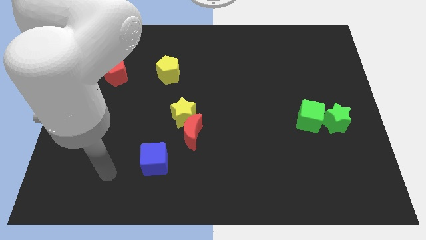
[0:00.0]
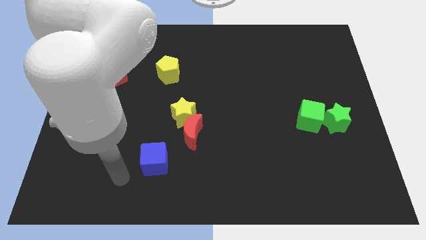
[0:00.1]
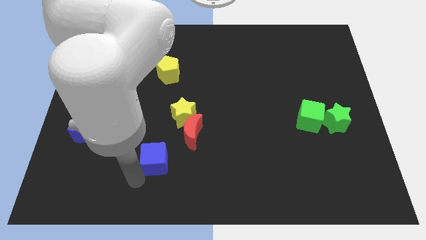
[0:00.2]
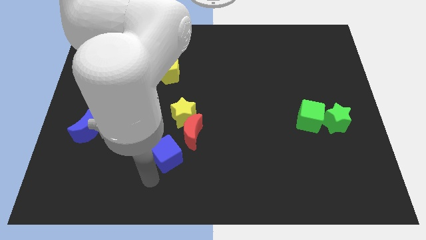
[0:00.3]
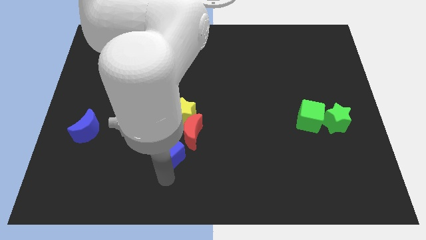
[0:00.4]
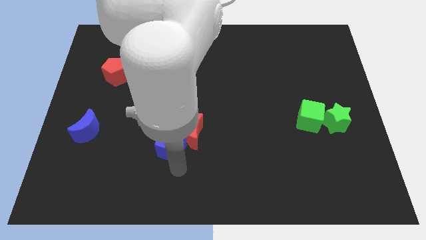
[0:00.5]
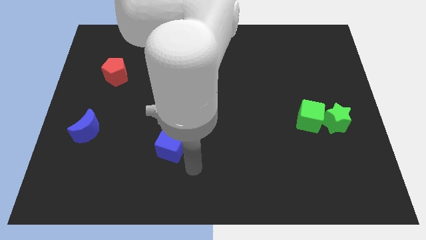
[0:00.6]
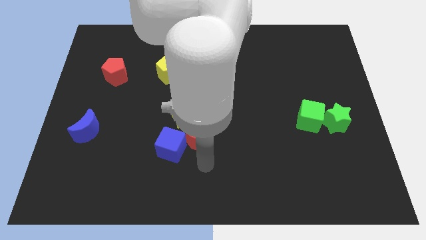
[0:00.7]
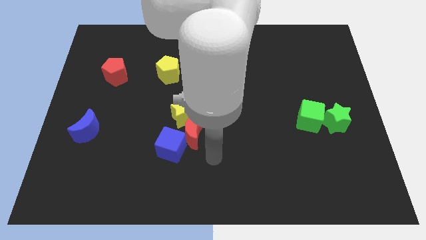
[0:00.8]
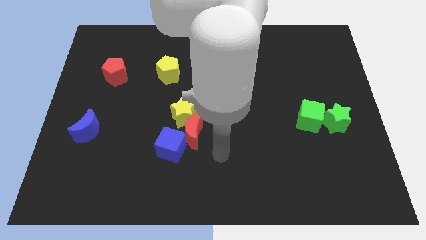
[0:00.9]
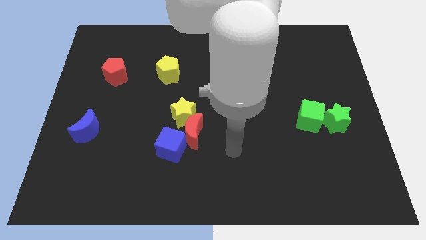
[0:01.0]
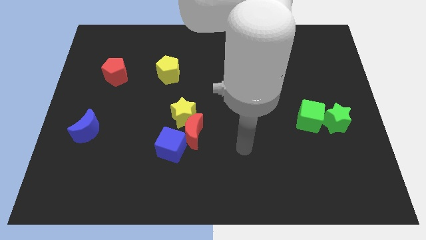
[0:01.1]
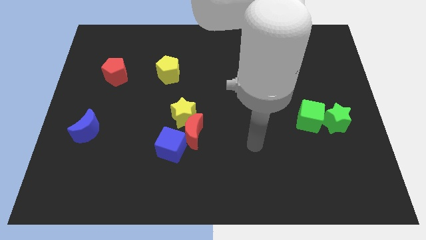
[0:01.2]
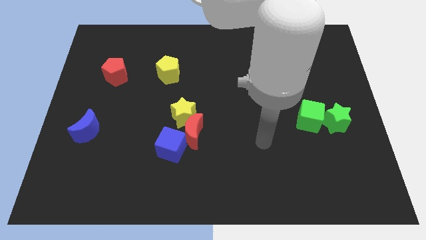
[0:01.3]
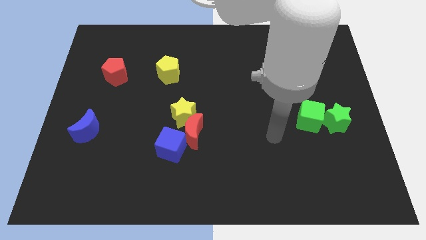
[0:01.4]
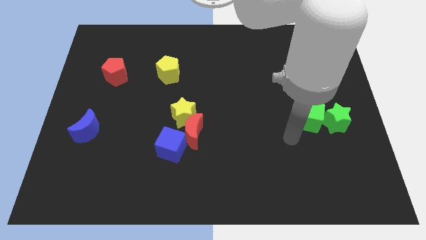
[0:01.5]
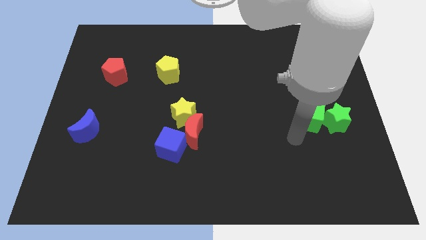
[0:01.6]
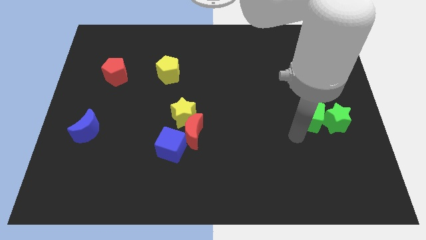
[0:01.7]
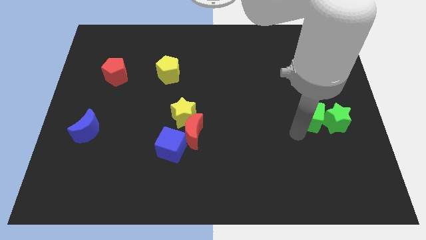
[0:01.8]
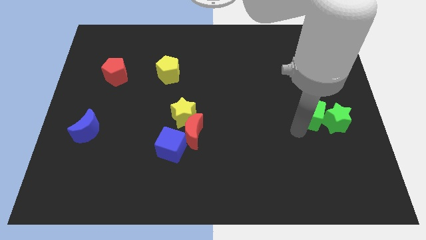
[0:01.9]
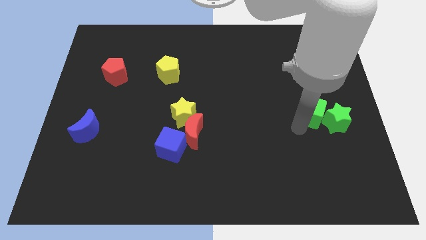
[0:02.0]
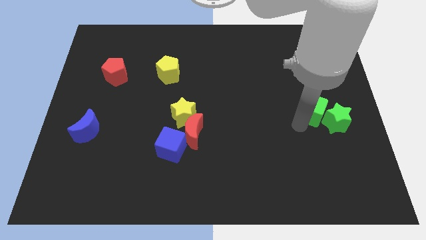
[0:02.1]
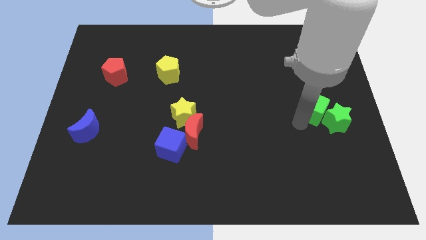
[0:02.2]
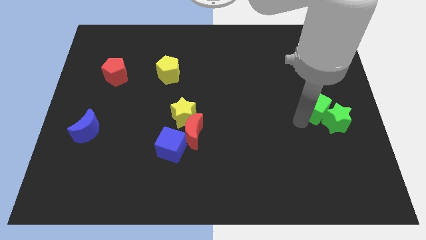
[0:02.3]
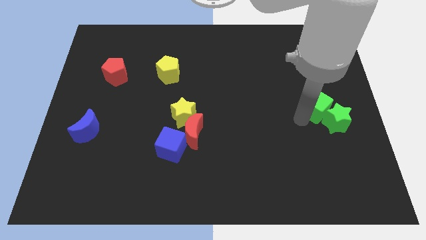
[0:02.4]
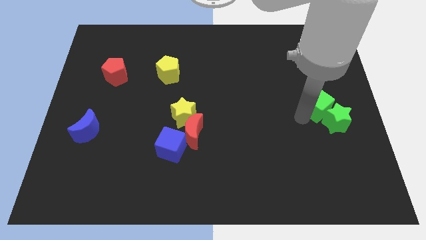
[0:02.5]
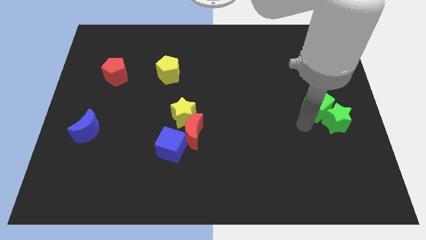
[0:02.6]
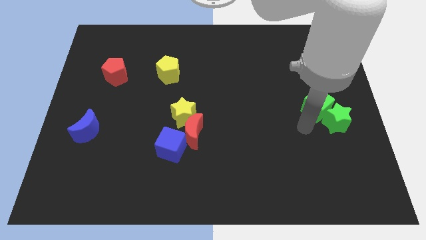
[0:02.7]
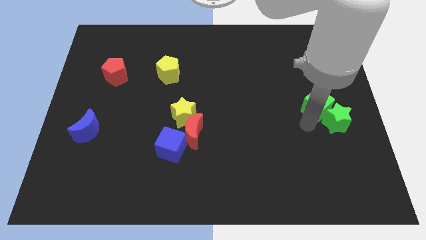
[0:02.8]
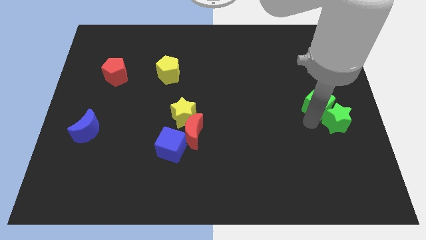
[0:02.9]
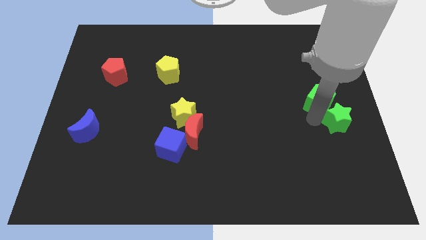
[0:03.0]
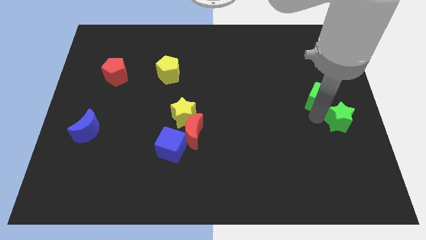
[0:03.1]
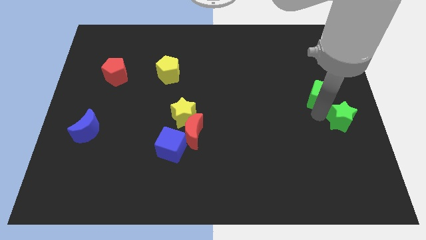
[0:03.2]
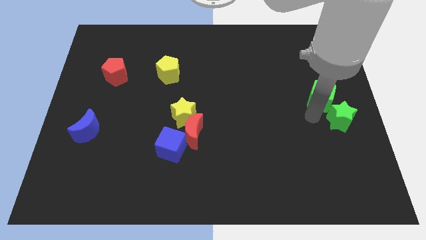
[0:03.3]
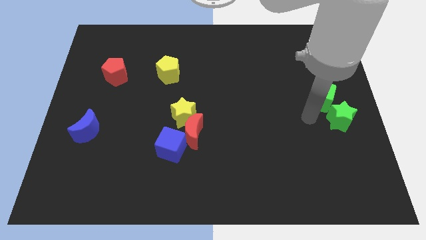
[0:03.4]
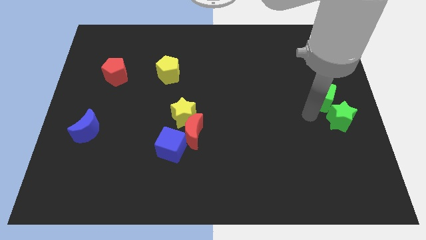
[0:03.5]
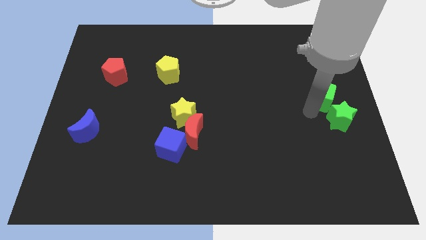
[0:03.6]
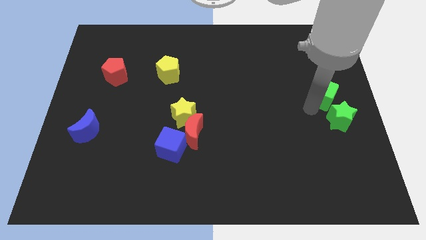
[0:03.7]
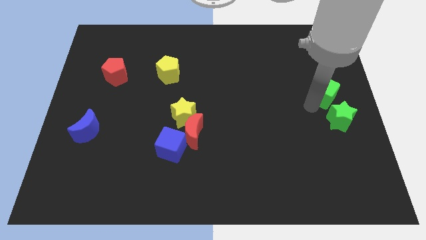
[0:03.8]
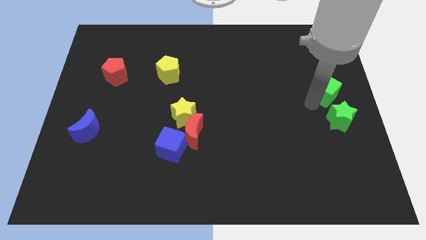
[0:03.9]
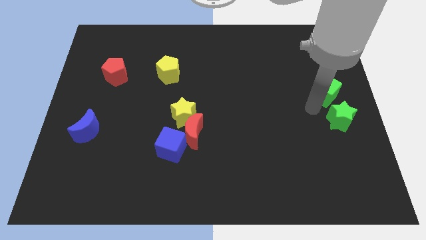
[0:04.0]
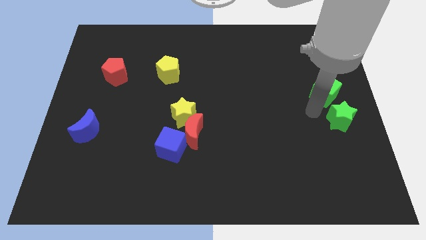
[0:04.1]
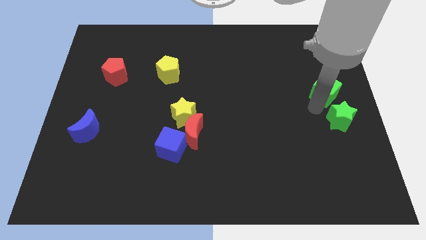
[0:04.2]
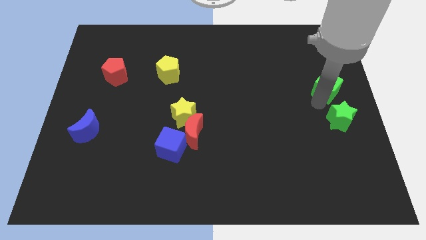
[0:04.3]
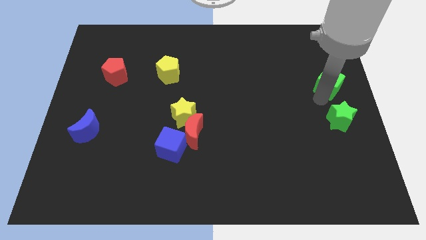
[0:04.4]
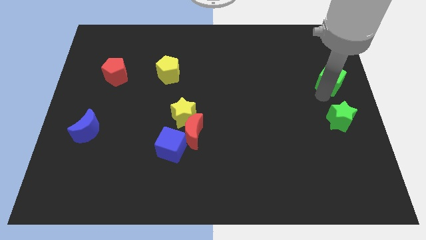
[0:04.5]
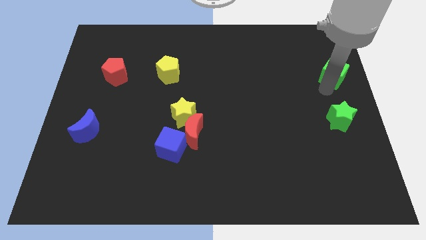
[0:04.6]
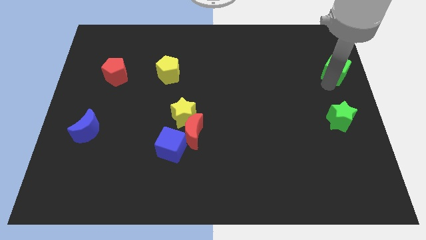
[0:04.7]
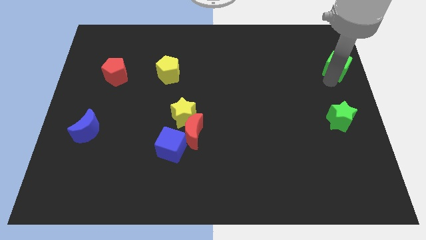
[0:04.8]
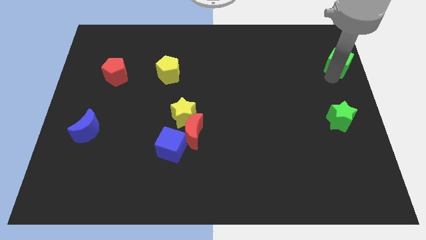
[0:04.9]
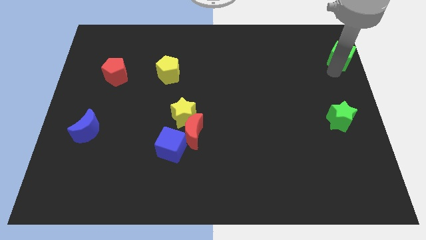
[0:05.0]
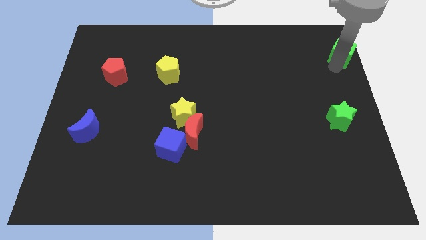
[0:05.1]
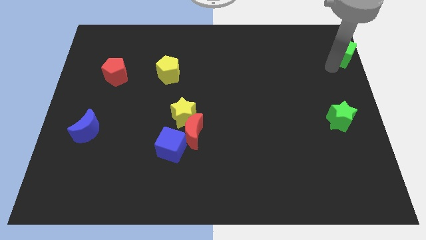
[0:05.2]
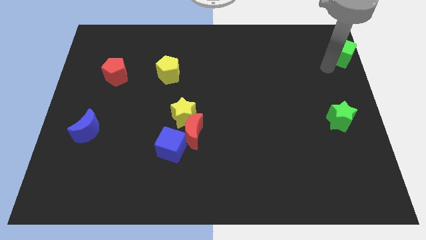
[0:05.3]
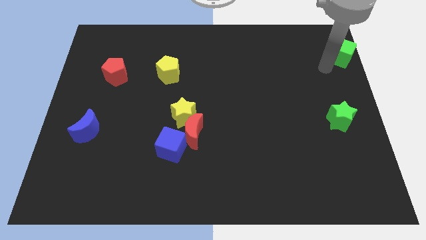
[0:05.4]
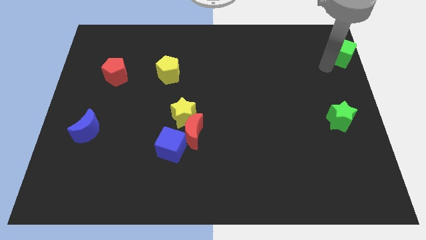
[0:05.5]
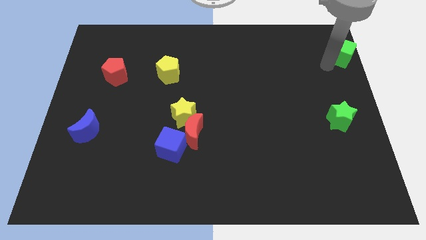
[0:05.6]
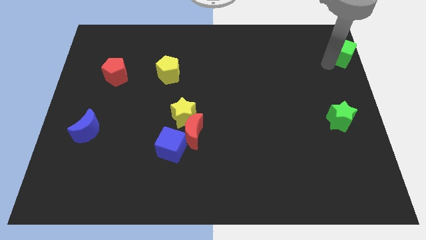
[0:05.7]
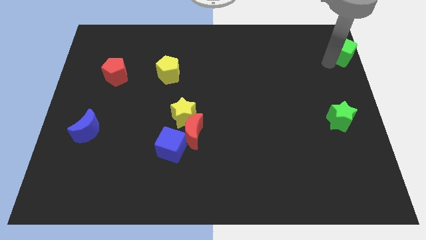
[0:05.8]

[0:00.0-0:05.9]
push the green cube to the top right corner
